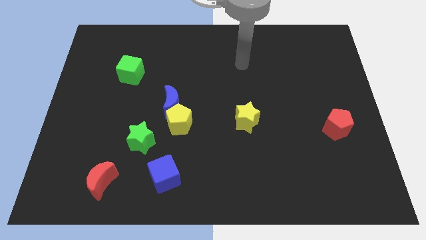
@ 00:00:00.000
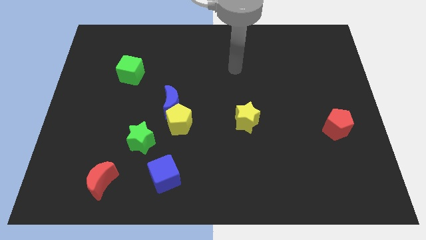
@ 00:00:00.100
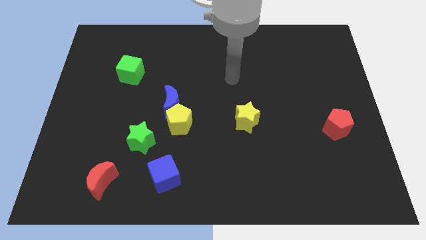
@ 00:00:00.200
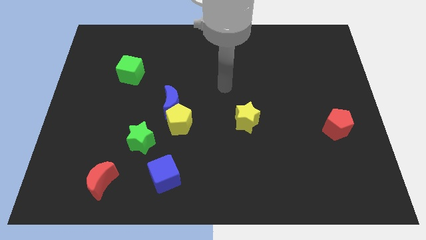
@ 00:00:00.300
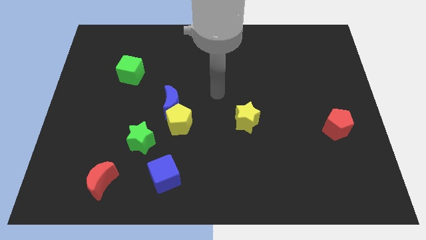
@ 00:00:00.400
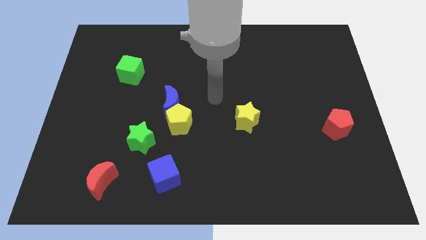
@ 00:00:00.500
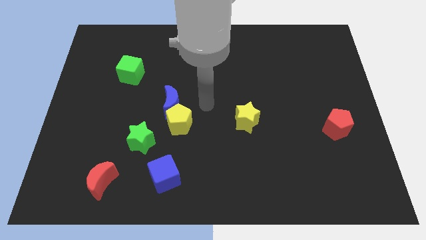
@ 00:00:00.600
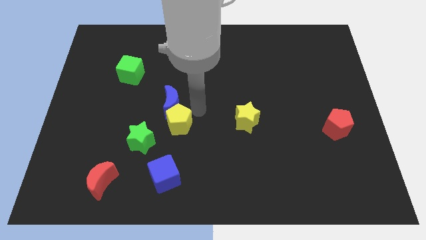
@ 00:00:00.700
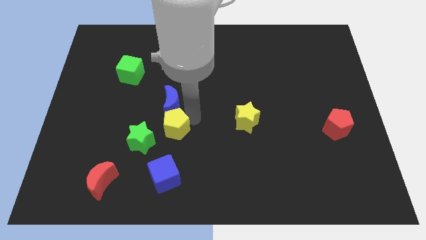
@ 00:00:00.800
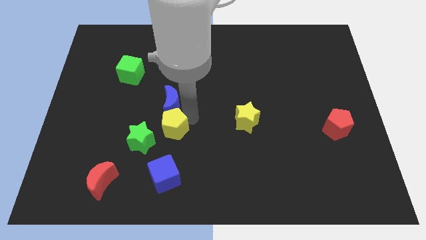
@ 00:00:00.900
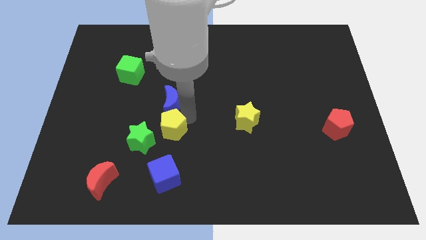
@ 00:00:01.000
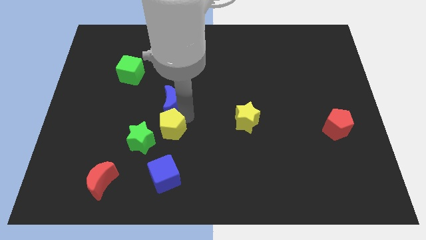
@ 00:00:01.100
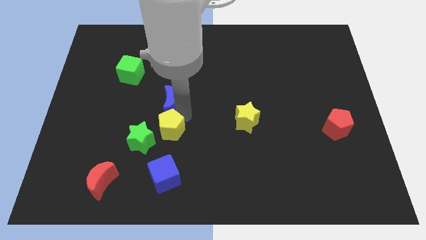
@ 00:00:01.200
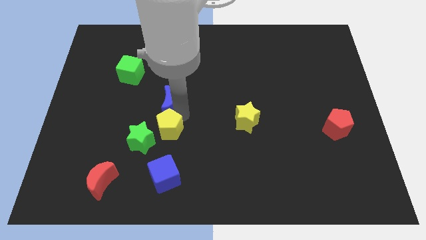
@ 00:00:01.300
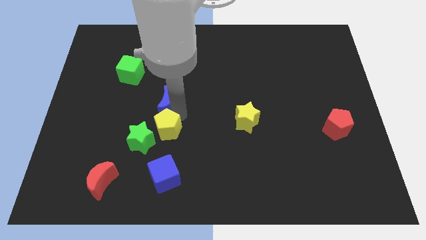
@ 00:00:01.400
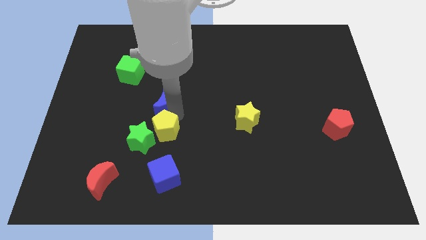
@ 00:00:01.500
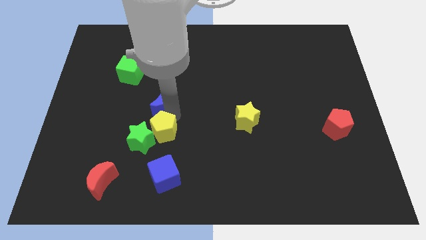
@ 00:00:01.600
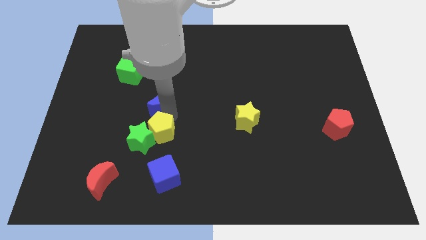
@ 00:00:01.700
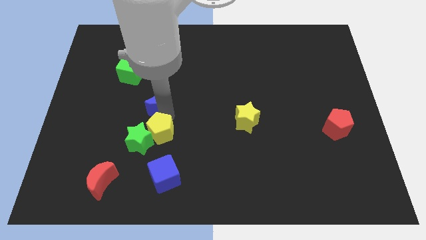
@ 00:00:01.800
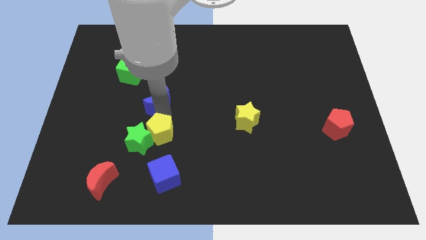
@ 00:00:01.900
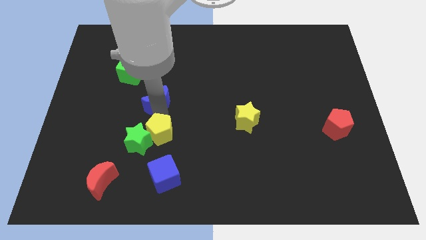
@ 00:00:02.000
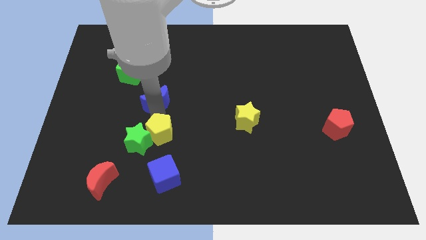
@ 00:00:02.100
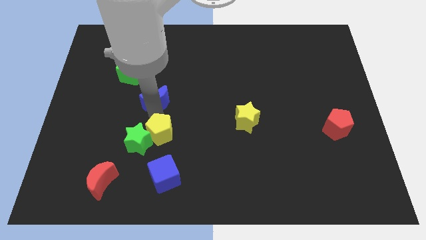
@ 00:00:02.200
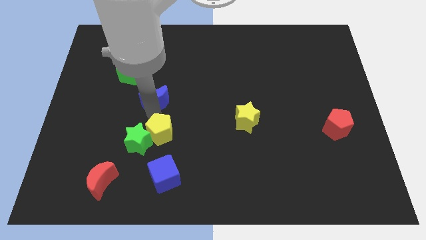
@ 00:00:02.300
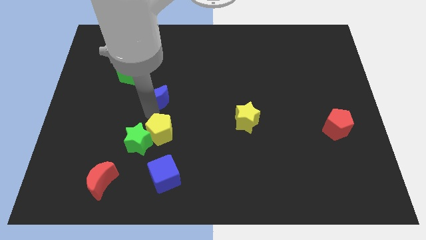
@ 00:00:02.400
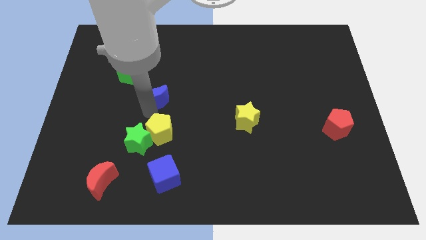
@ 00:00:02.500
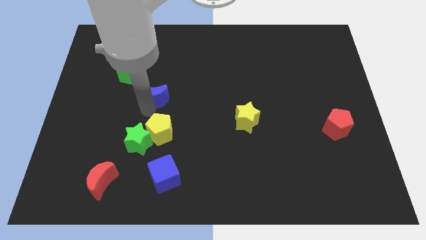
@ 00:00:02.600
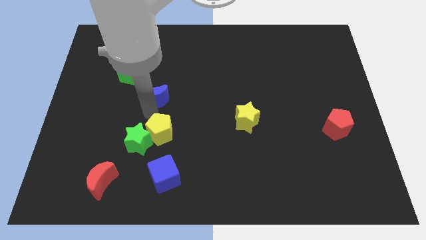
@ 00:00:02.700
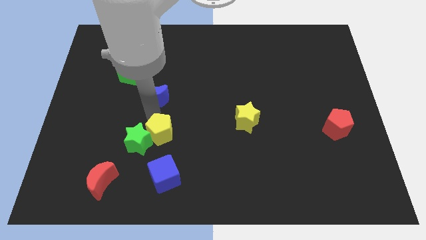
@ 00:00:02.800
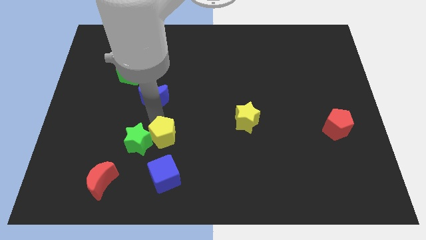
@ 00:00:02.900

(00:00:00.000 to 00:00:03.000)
separate the blue moon from the yellow pentagon

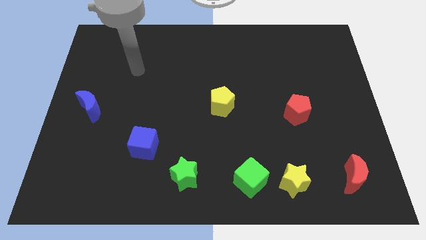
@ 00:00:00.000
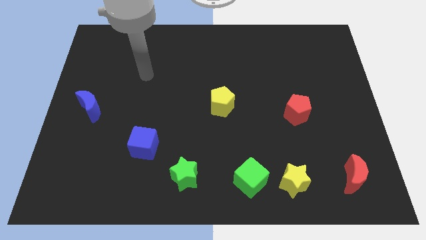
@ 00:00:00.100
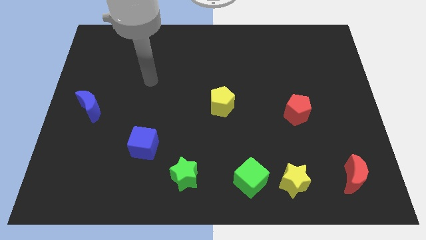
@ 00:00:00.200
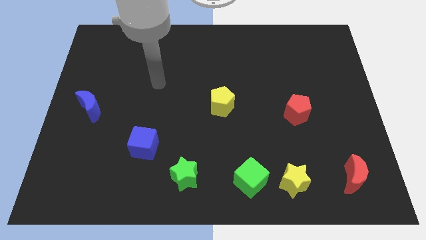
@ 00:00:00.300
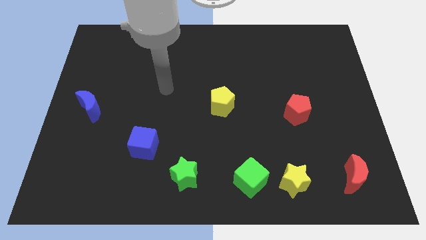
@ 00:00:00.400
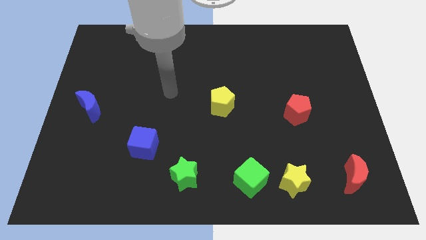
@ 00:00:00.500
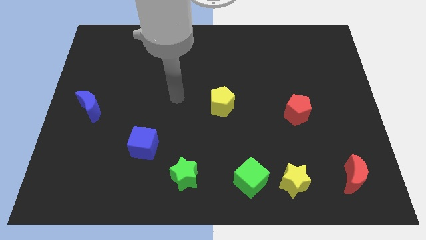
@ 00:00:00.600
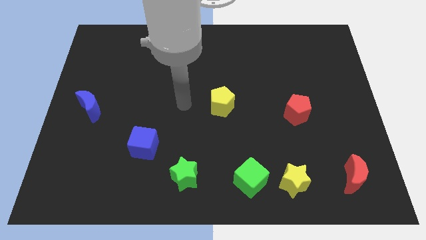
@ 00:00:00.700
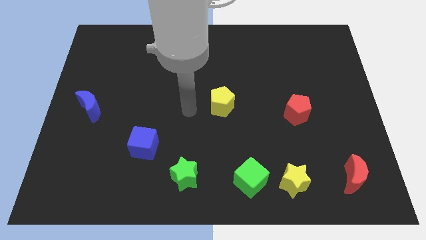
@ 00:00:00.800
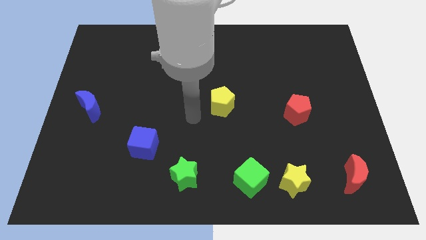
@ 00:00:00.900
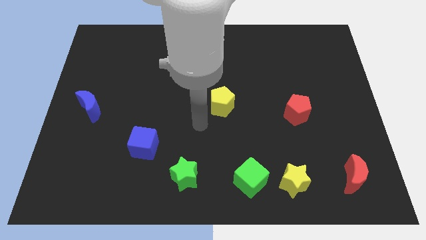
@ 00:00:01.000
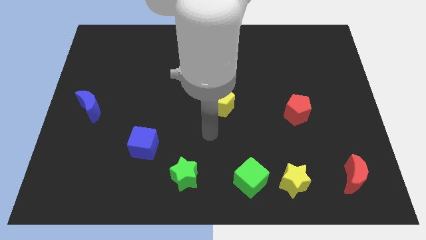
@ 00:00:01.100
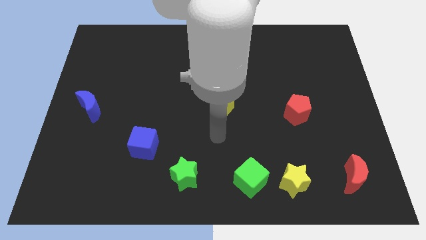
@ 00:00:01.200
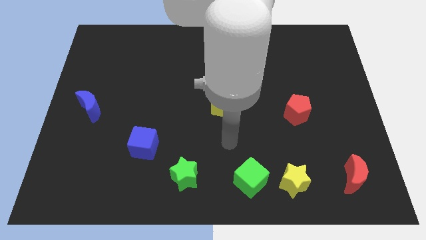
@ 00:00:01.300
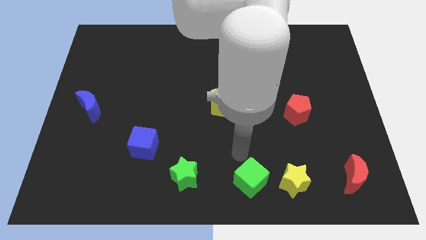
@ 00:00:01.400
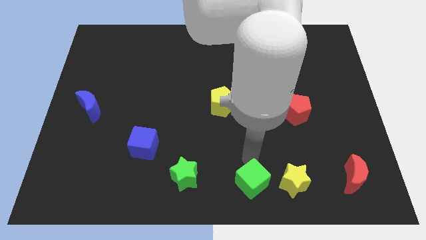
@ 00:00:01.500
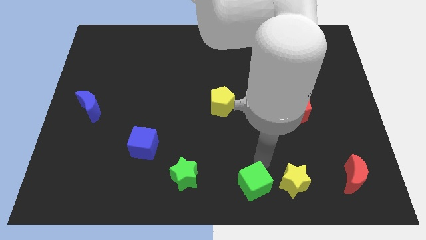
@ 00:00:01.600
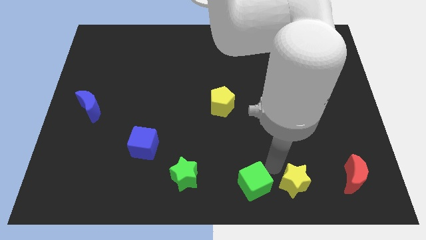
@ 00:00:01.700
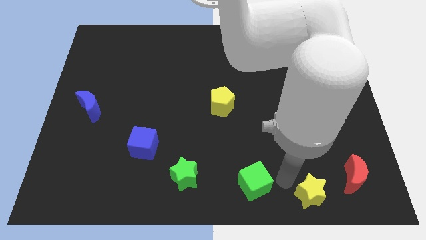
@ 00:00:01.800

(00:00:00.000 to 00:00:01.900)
separate the green cube from the yellow star

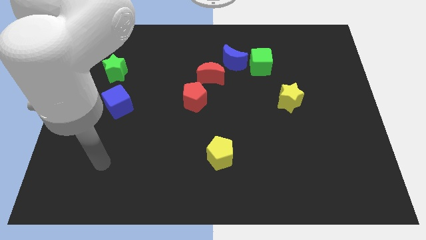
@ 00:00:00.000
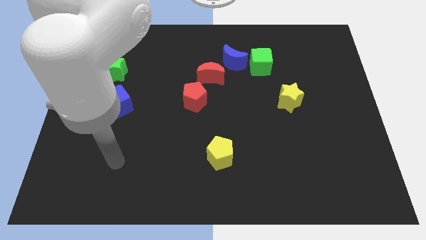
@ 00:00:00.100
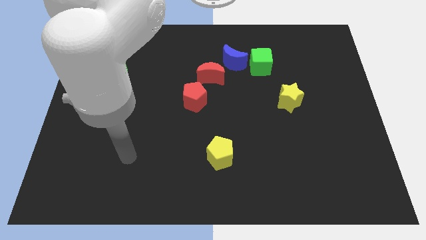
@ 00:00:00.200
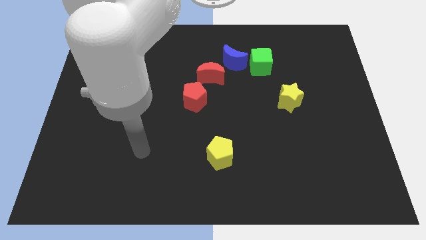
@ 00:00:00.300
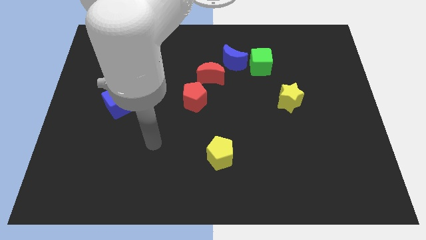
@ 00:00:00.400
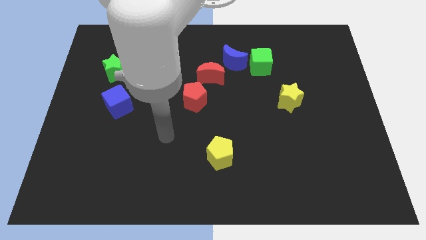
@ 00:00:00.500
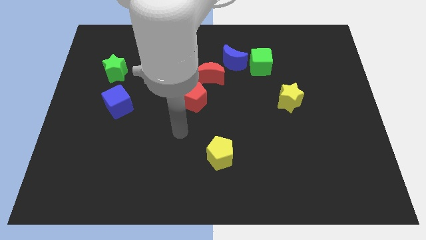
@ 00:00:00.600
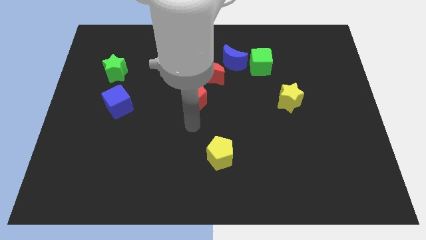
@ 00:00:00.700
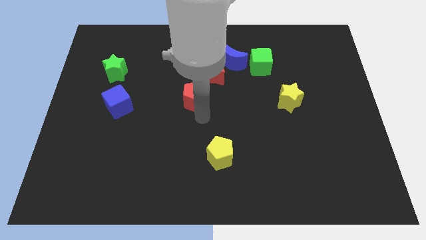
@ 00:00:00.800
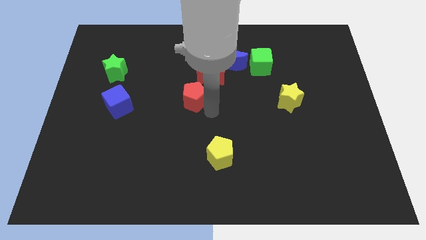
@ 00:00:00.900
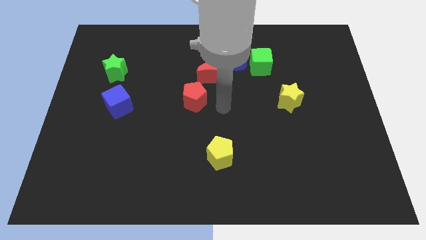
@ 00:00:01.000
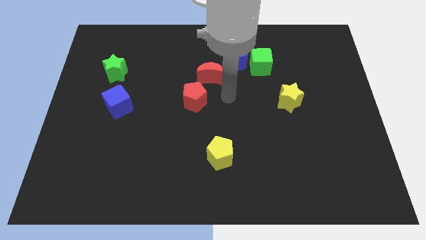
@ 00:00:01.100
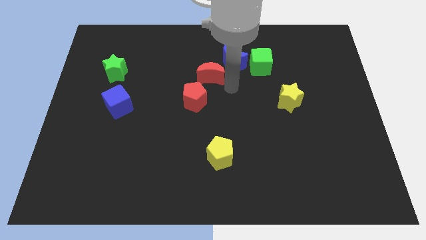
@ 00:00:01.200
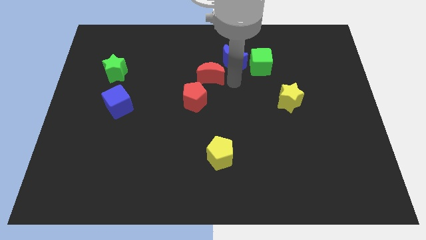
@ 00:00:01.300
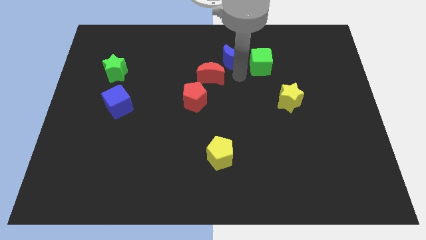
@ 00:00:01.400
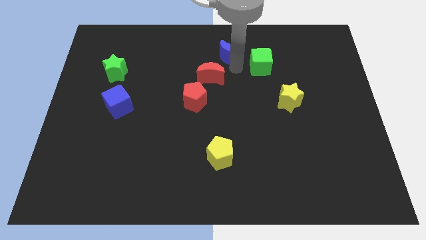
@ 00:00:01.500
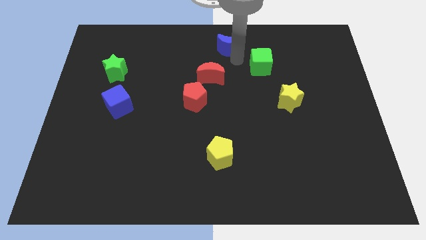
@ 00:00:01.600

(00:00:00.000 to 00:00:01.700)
move the green cube away from the blue moon

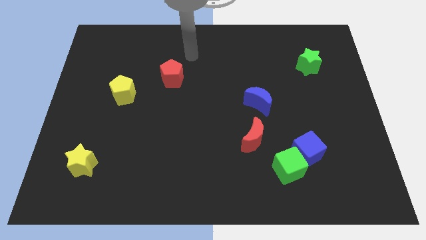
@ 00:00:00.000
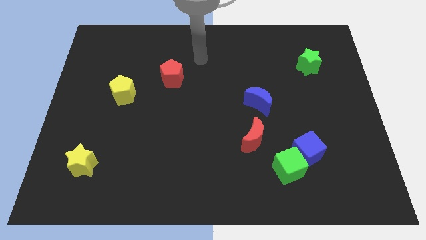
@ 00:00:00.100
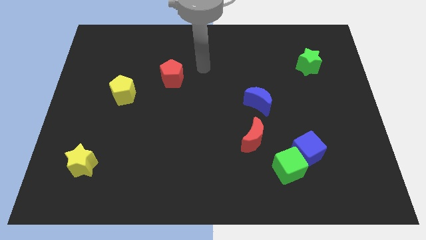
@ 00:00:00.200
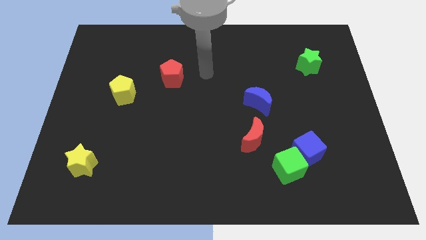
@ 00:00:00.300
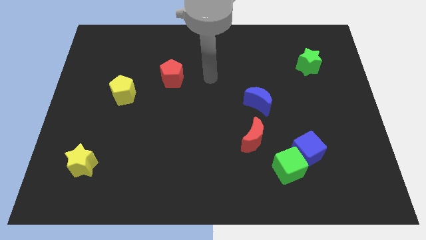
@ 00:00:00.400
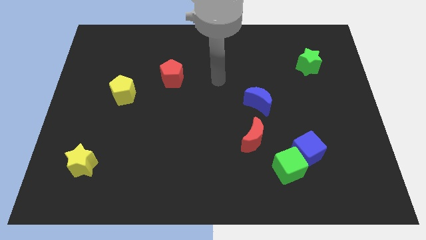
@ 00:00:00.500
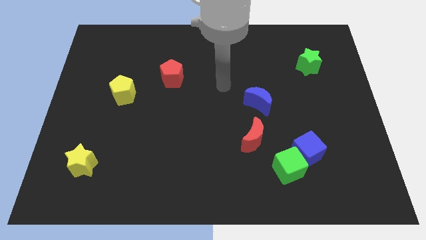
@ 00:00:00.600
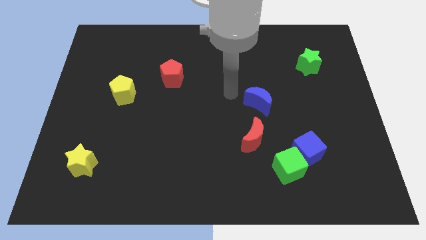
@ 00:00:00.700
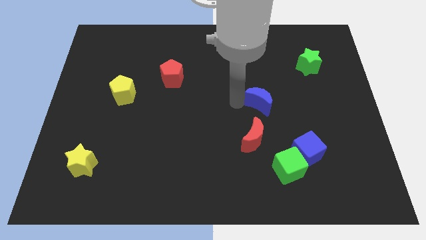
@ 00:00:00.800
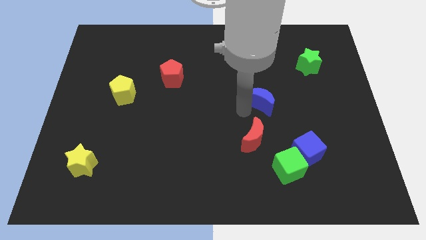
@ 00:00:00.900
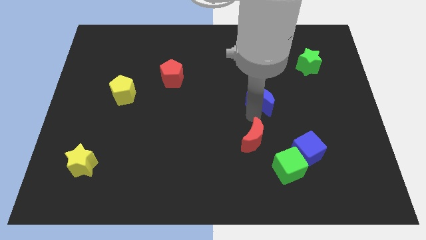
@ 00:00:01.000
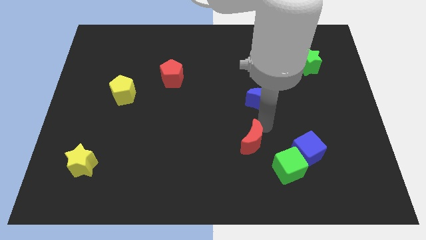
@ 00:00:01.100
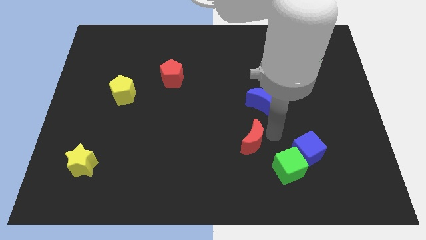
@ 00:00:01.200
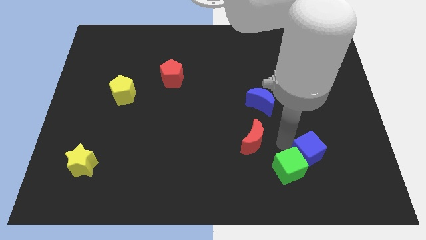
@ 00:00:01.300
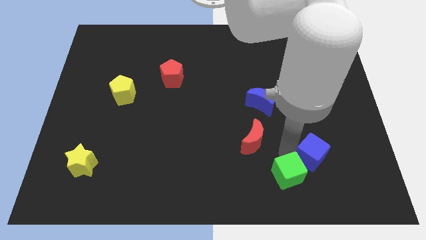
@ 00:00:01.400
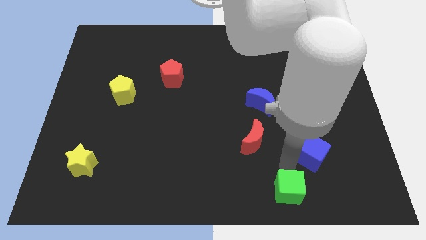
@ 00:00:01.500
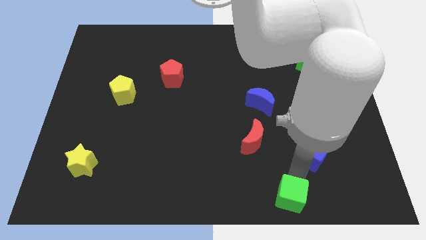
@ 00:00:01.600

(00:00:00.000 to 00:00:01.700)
move the blue cube away from the green cube

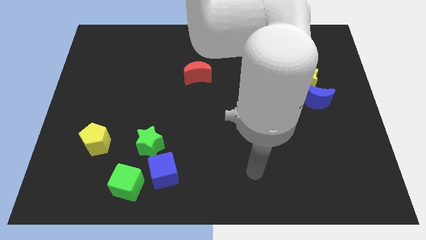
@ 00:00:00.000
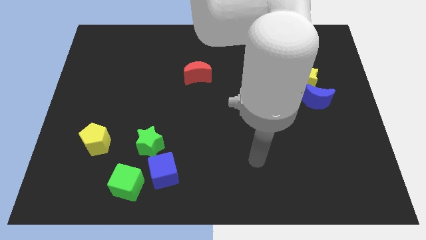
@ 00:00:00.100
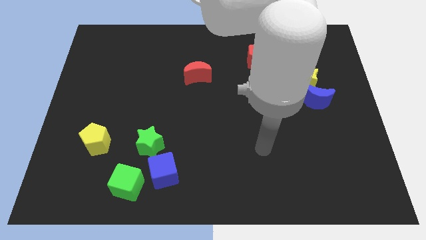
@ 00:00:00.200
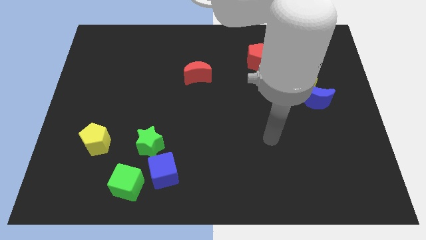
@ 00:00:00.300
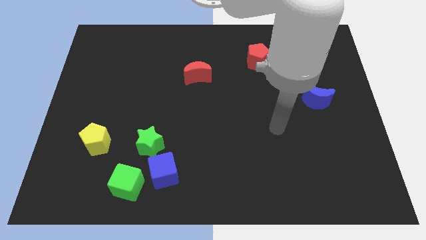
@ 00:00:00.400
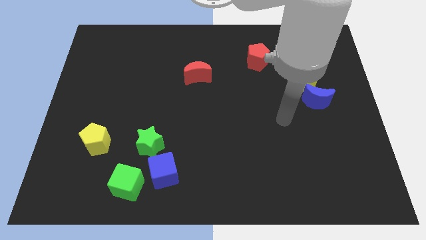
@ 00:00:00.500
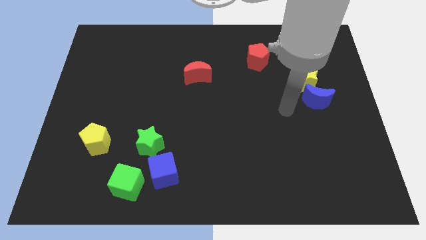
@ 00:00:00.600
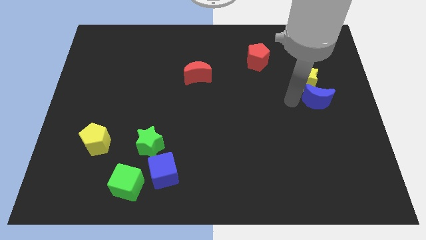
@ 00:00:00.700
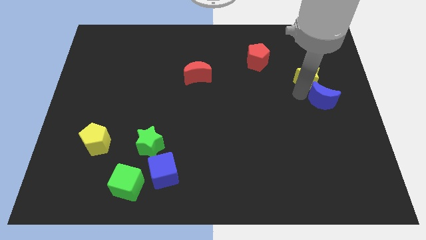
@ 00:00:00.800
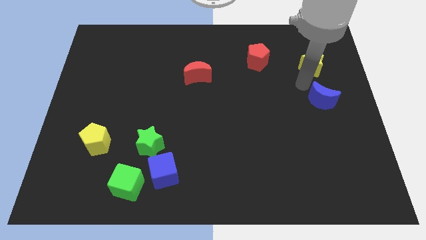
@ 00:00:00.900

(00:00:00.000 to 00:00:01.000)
pull the blue moon apart from the yellow star

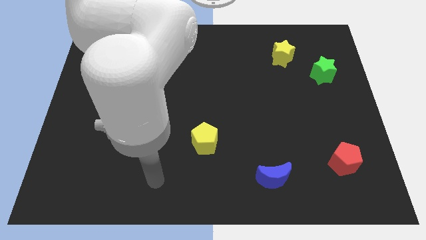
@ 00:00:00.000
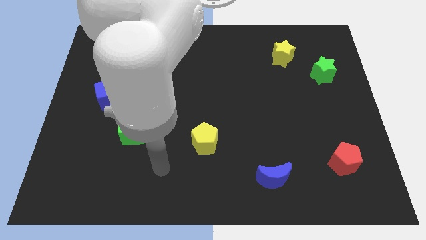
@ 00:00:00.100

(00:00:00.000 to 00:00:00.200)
move the red moon away from the blue cube
